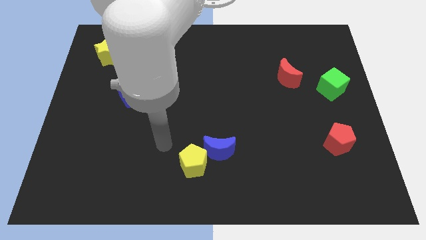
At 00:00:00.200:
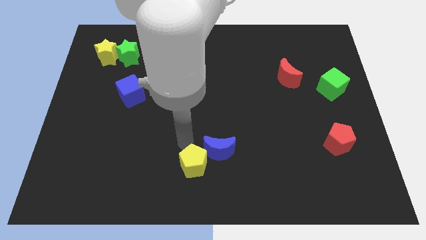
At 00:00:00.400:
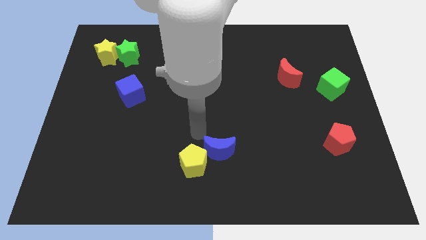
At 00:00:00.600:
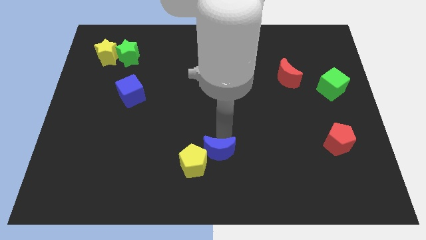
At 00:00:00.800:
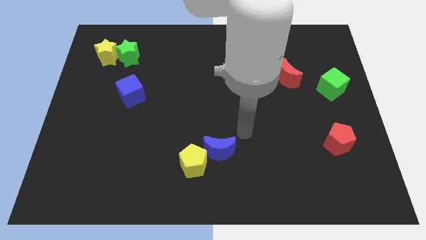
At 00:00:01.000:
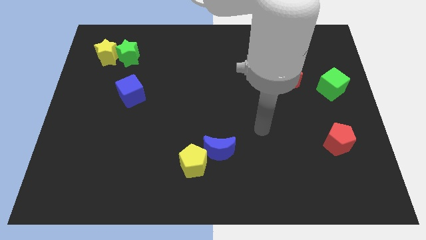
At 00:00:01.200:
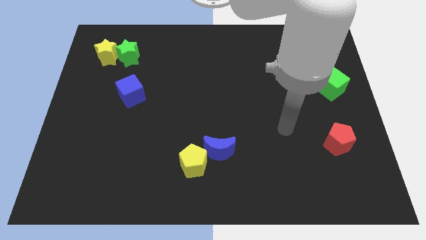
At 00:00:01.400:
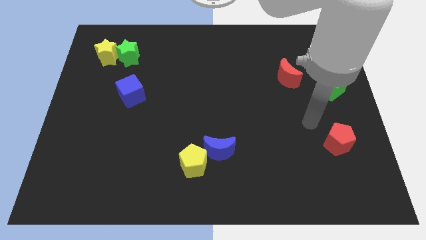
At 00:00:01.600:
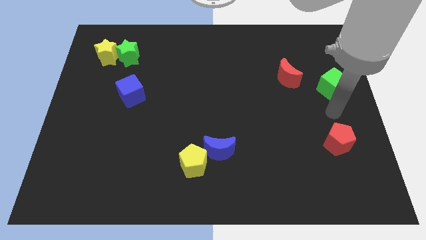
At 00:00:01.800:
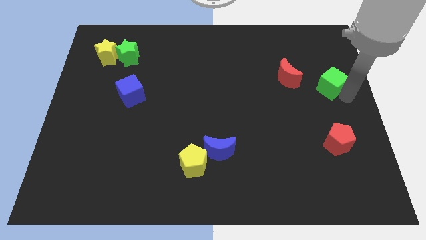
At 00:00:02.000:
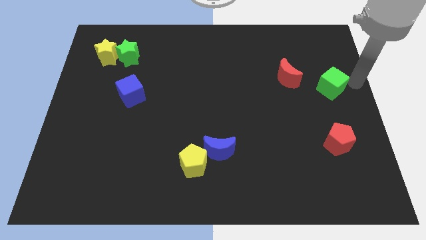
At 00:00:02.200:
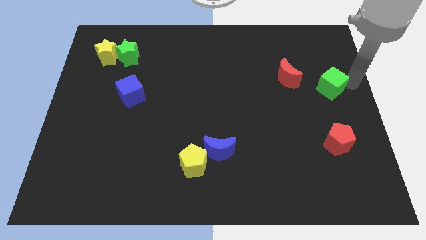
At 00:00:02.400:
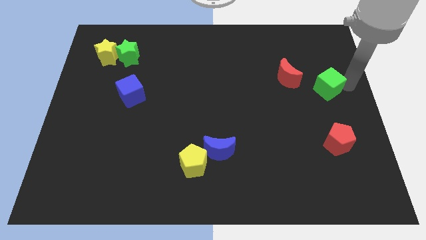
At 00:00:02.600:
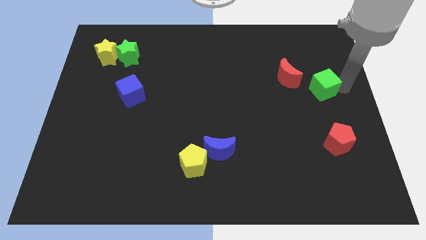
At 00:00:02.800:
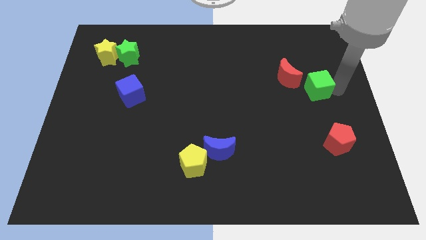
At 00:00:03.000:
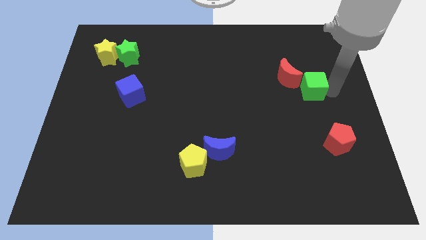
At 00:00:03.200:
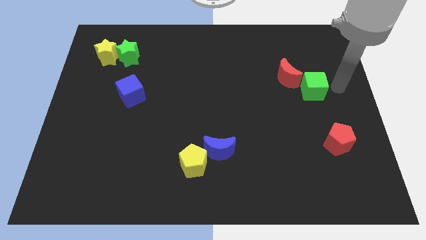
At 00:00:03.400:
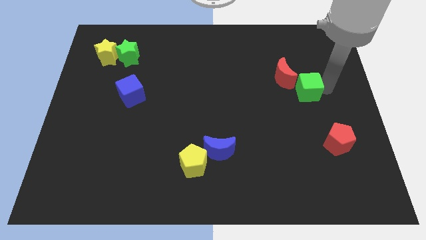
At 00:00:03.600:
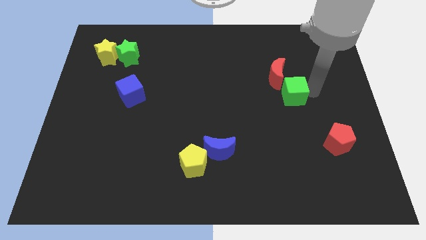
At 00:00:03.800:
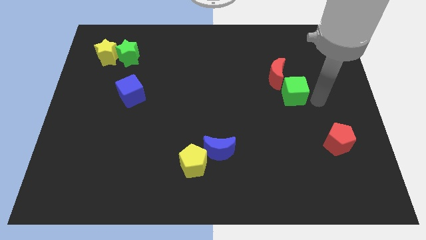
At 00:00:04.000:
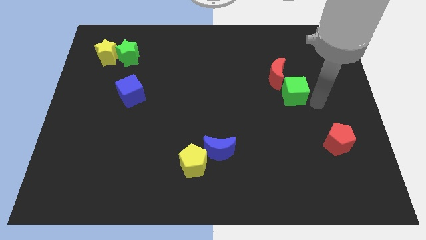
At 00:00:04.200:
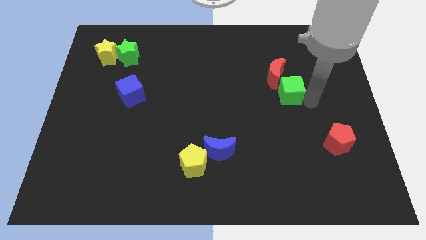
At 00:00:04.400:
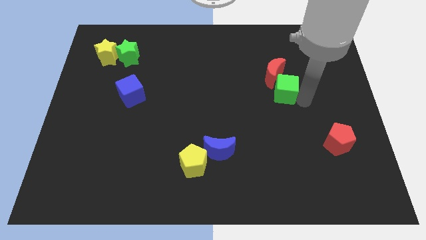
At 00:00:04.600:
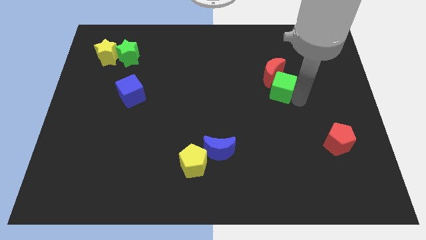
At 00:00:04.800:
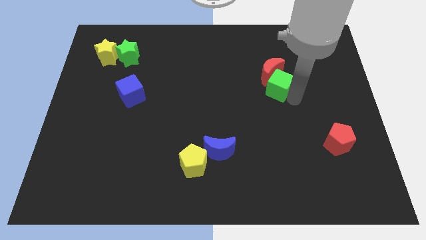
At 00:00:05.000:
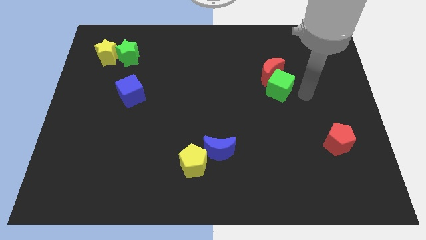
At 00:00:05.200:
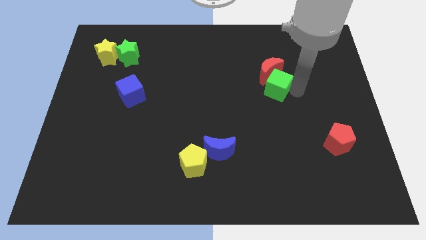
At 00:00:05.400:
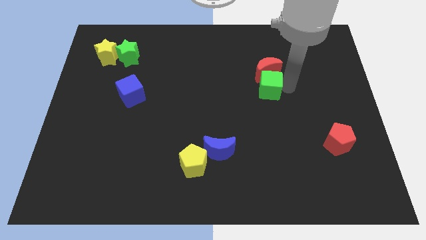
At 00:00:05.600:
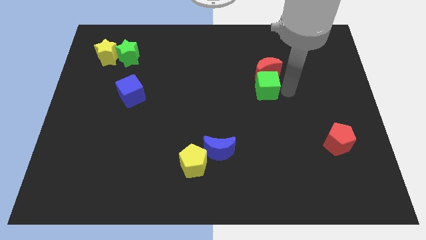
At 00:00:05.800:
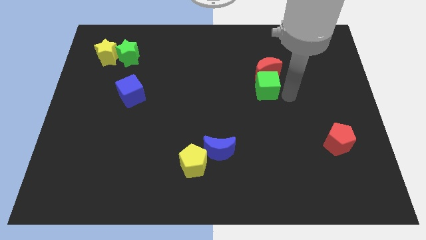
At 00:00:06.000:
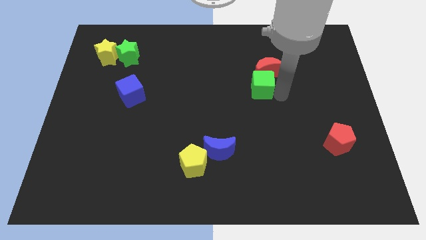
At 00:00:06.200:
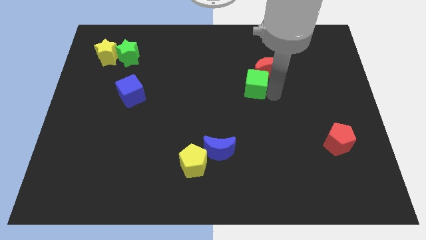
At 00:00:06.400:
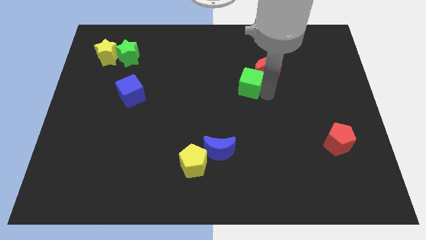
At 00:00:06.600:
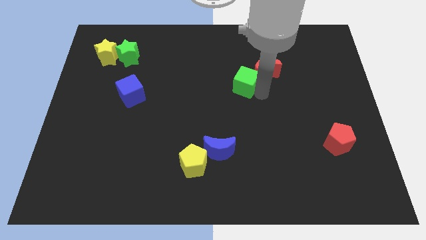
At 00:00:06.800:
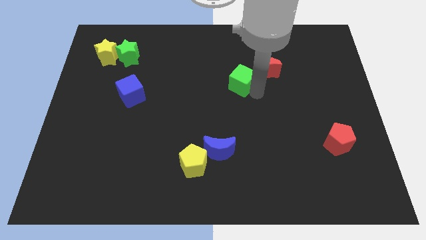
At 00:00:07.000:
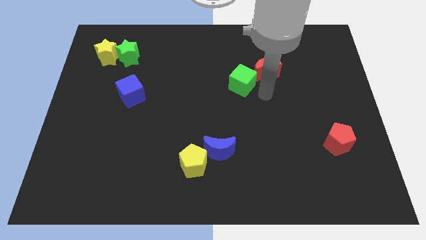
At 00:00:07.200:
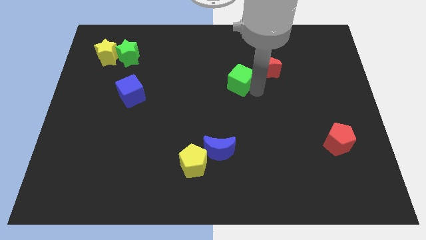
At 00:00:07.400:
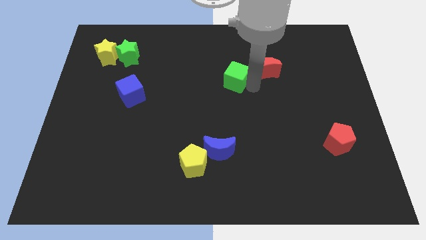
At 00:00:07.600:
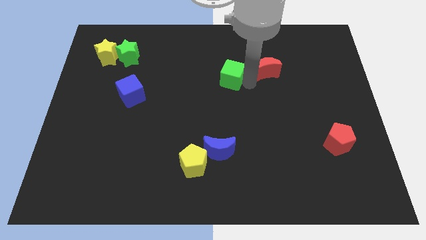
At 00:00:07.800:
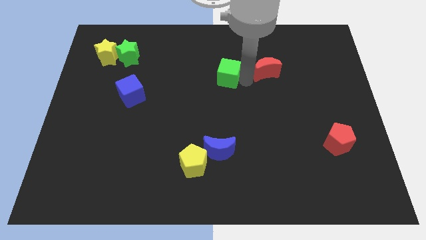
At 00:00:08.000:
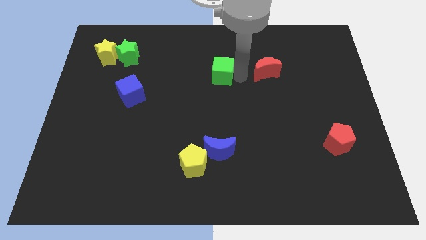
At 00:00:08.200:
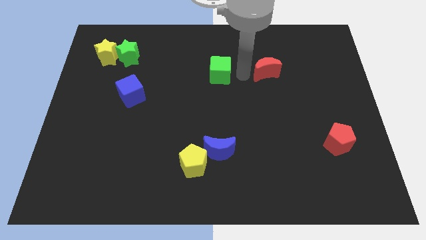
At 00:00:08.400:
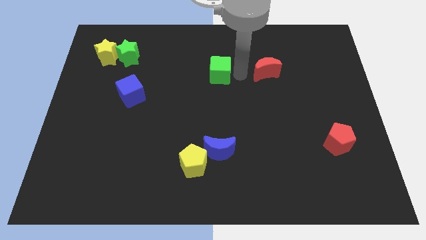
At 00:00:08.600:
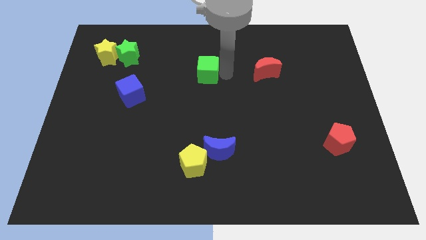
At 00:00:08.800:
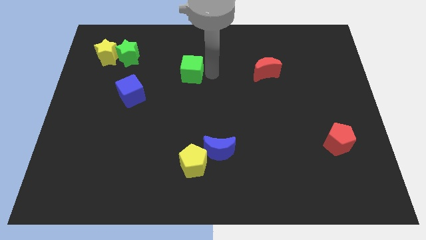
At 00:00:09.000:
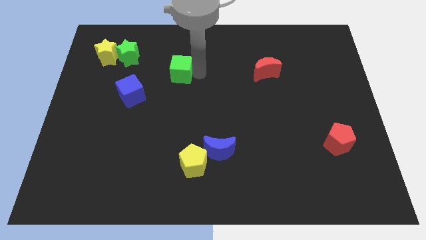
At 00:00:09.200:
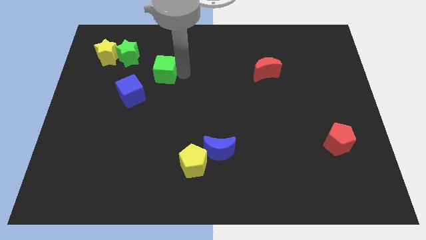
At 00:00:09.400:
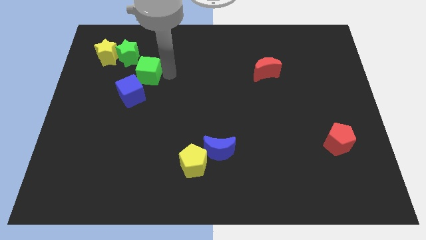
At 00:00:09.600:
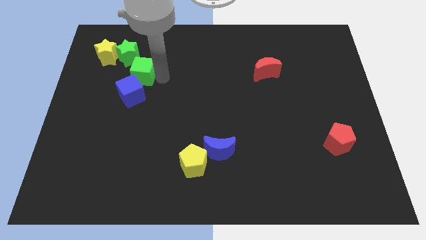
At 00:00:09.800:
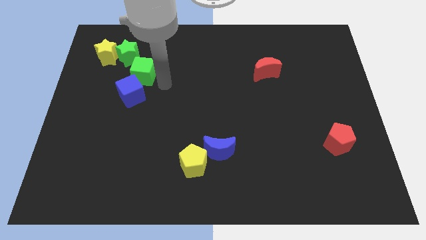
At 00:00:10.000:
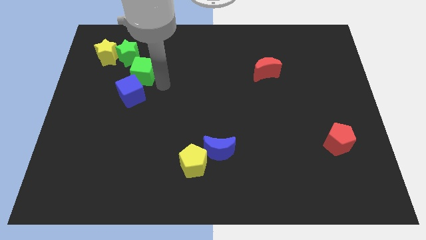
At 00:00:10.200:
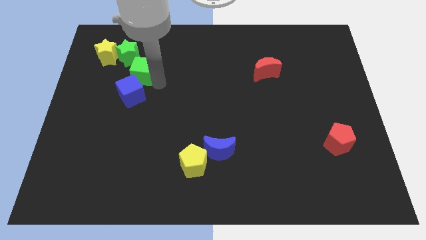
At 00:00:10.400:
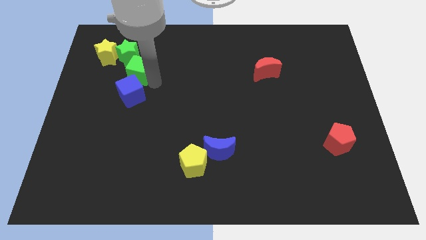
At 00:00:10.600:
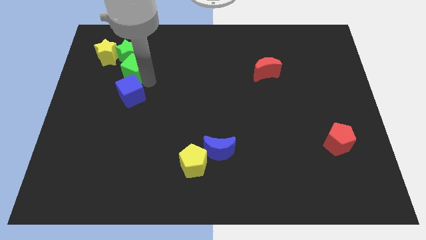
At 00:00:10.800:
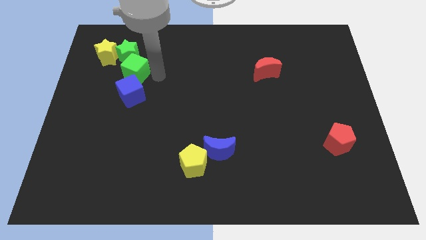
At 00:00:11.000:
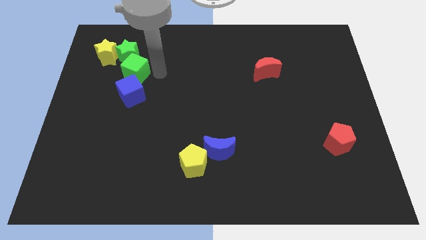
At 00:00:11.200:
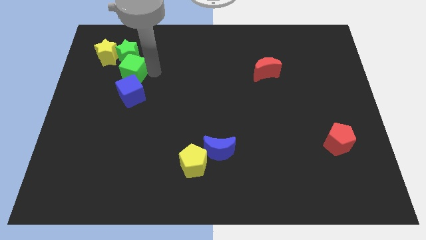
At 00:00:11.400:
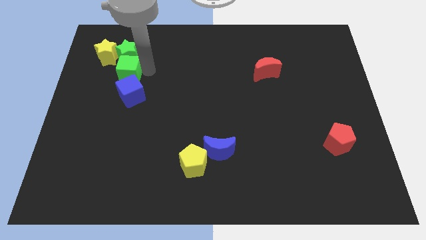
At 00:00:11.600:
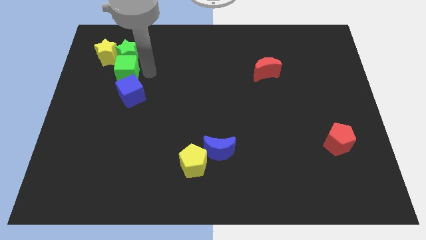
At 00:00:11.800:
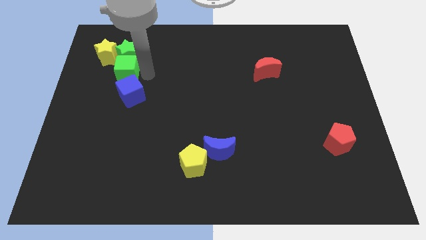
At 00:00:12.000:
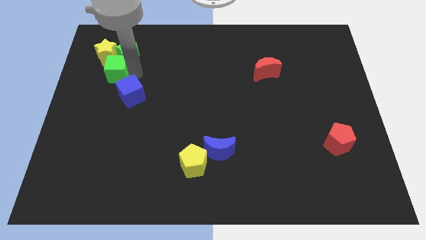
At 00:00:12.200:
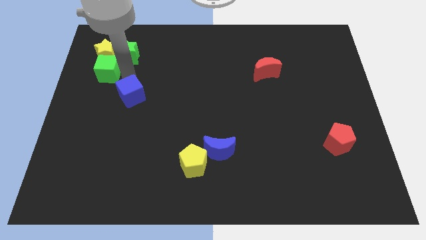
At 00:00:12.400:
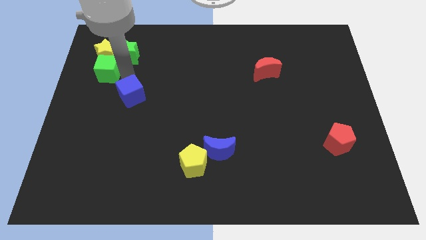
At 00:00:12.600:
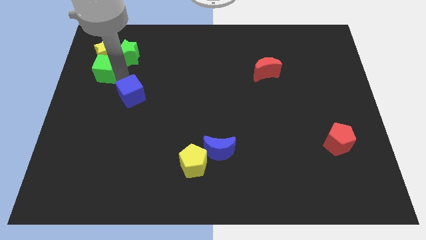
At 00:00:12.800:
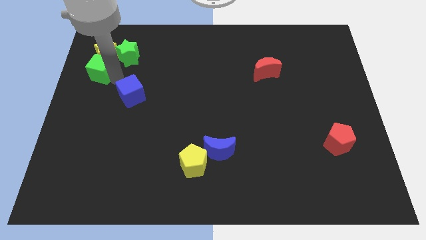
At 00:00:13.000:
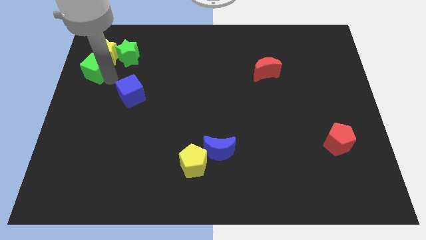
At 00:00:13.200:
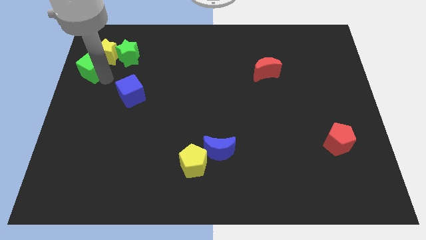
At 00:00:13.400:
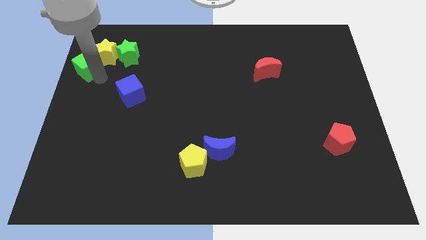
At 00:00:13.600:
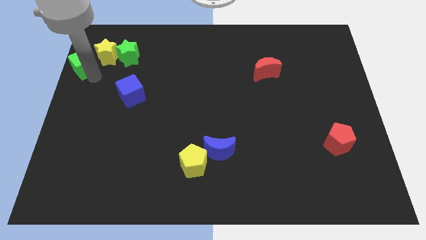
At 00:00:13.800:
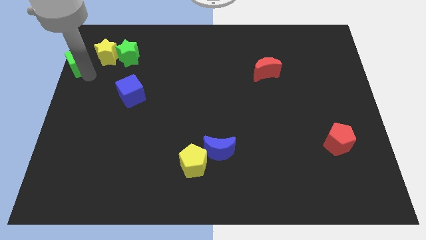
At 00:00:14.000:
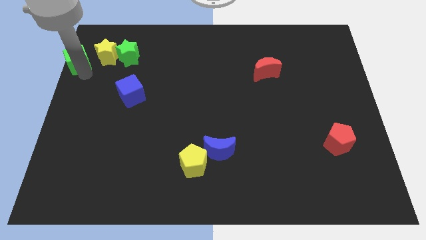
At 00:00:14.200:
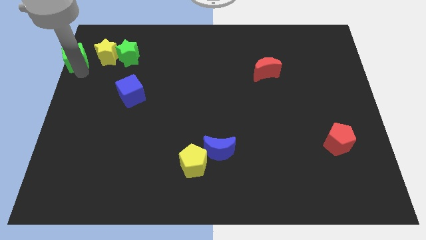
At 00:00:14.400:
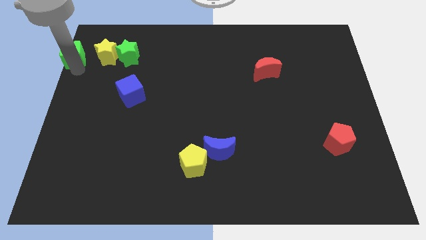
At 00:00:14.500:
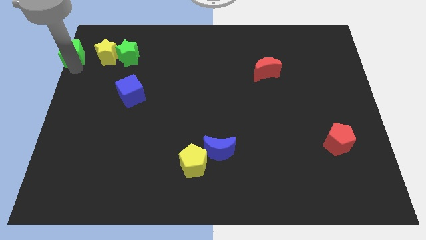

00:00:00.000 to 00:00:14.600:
move the green cube to the upper left corner
